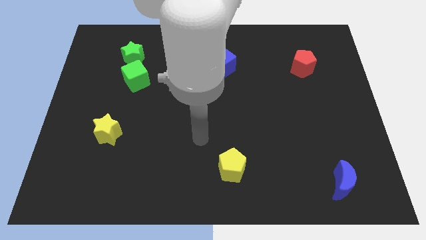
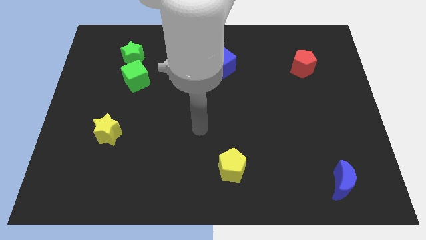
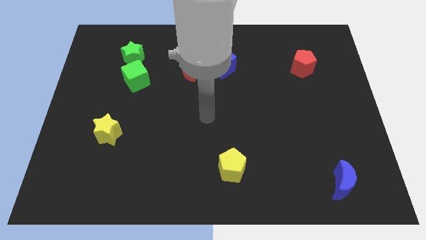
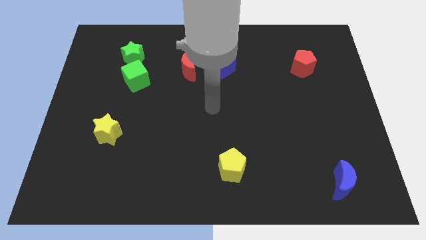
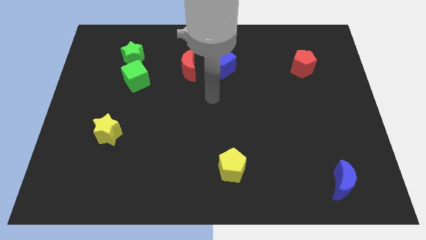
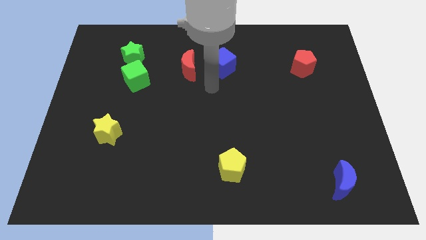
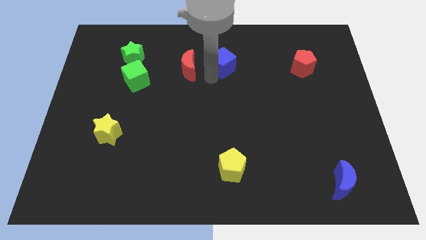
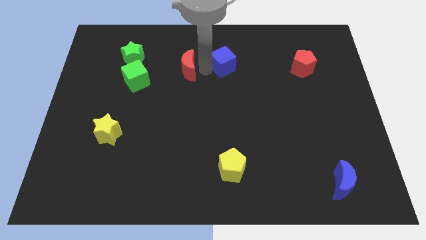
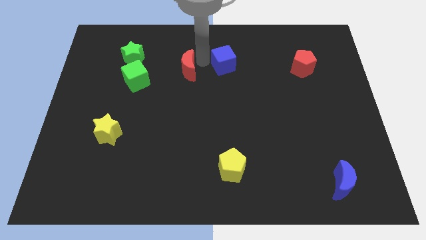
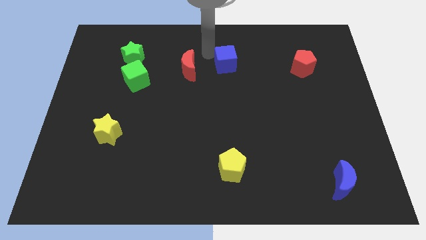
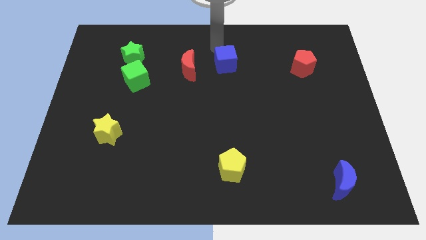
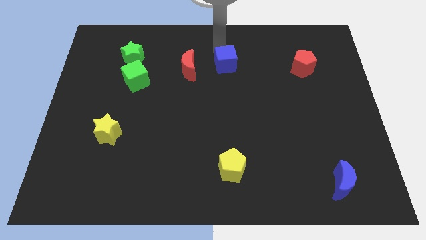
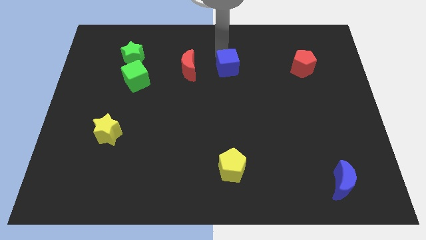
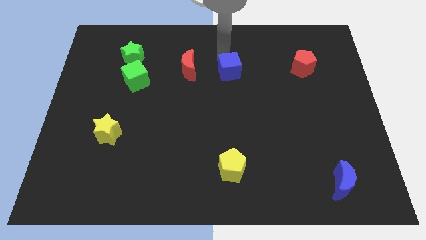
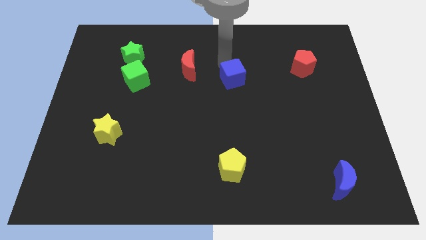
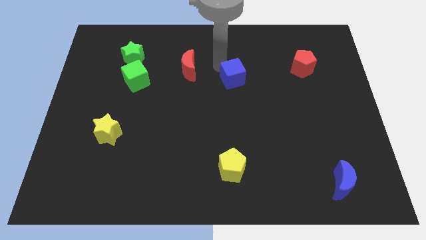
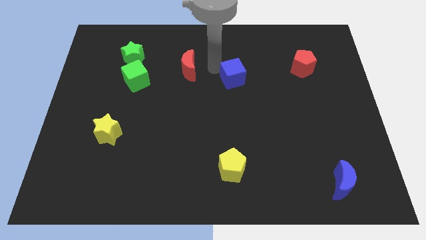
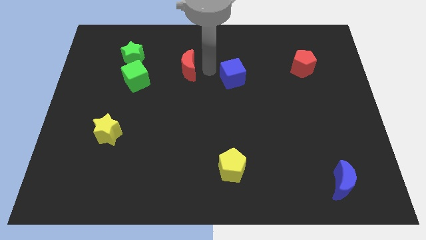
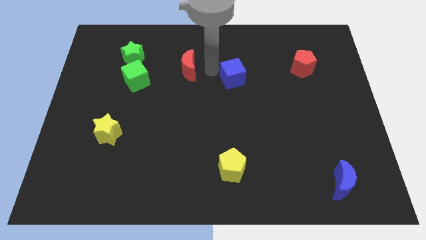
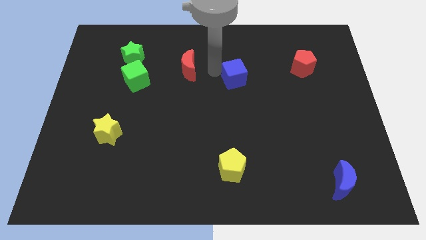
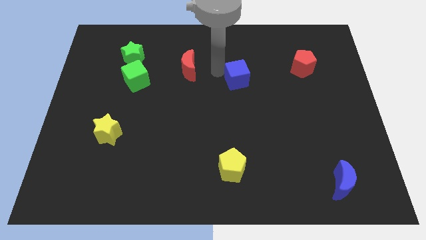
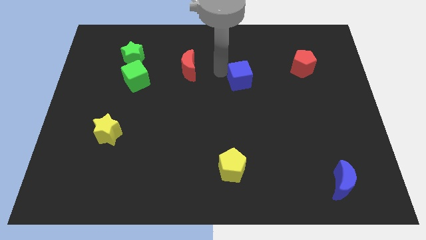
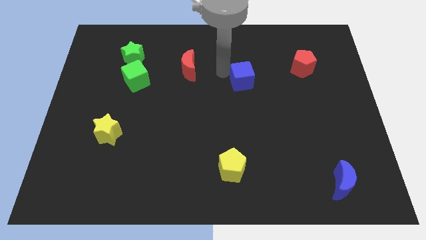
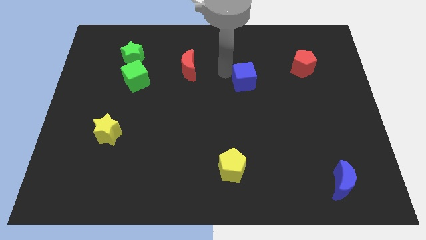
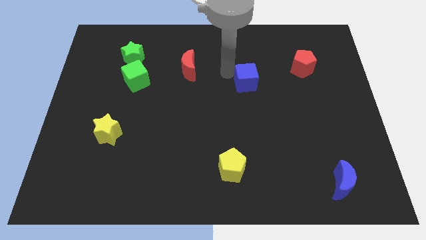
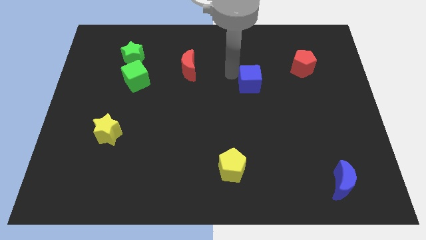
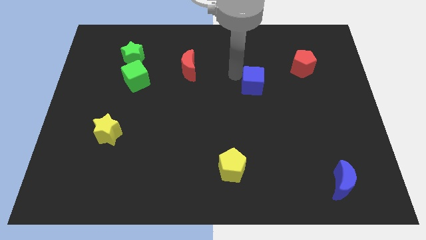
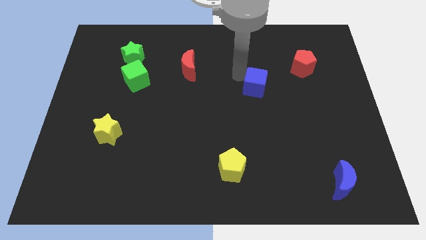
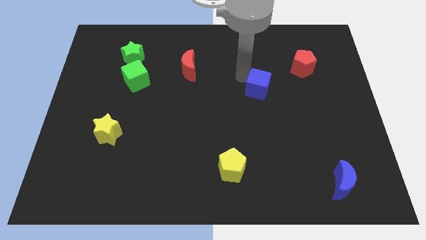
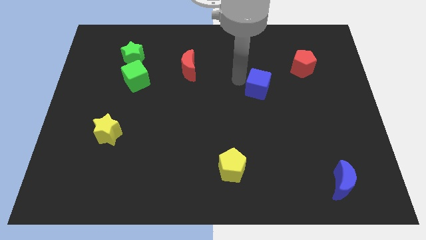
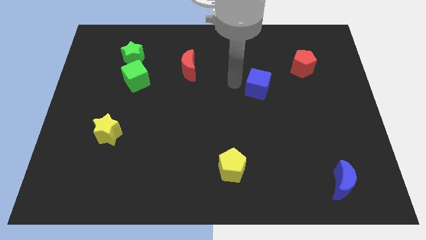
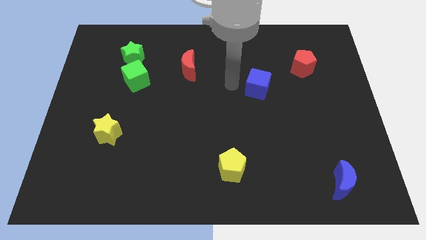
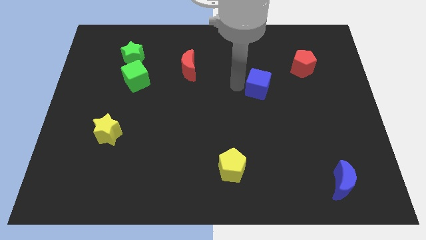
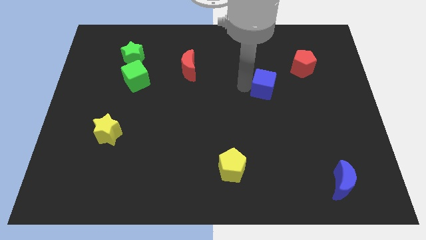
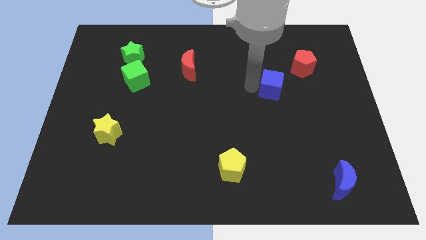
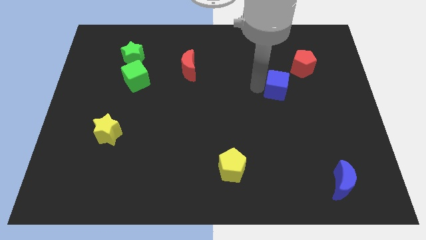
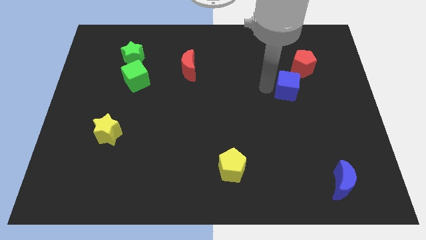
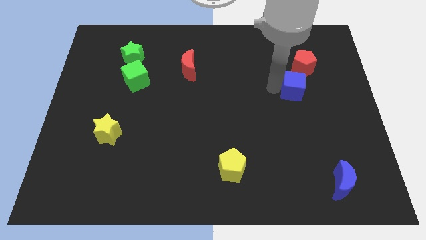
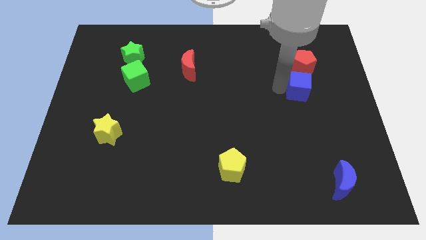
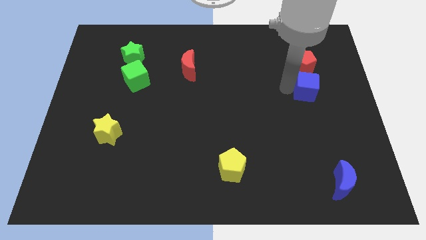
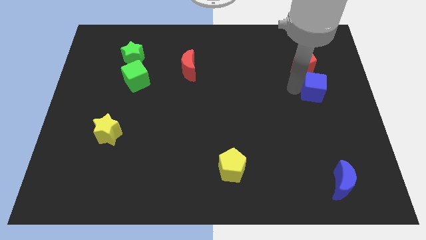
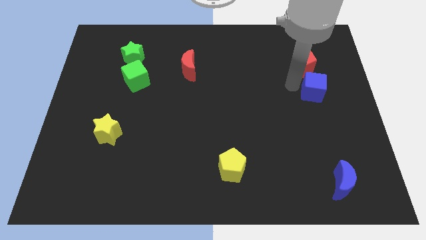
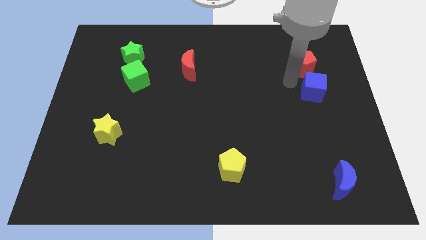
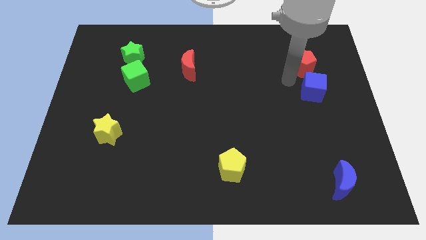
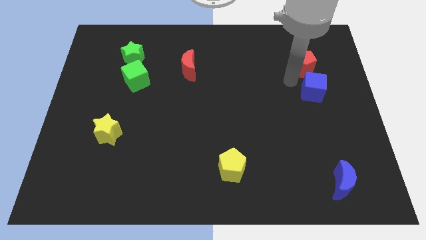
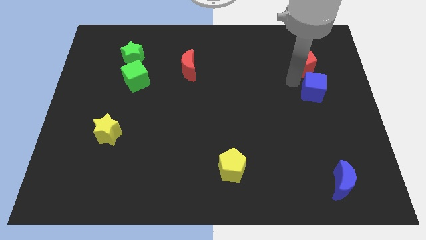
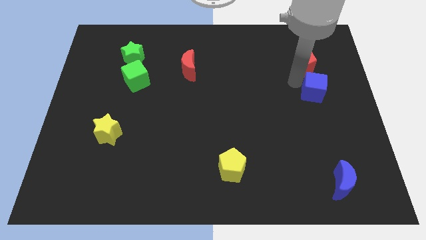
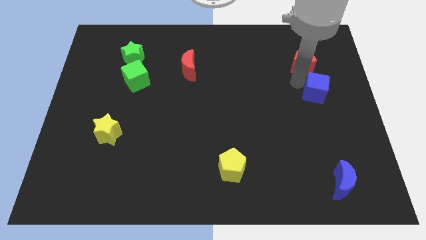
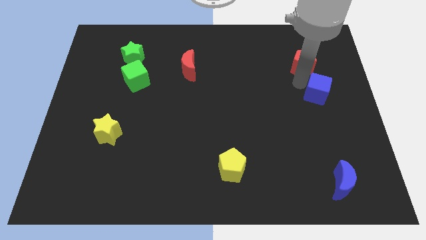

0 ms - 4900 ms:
push the blue cube to the right side of the board

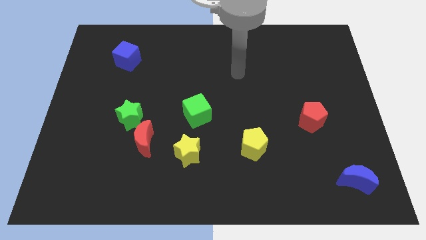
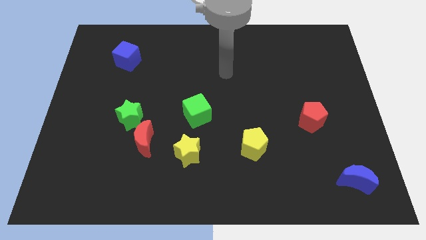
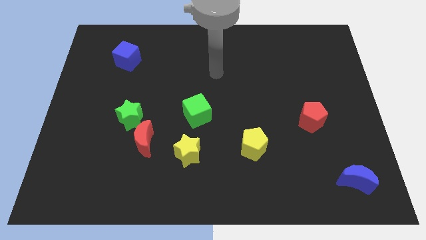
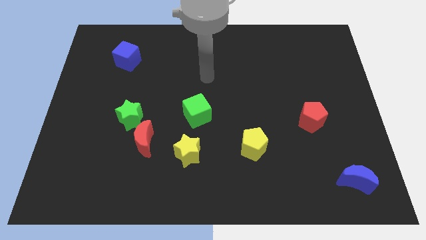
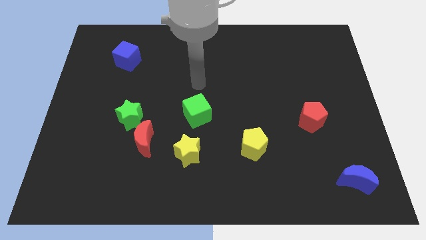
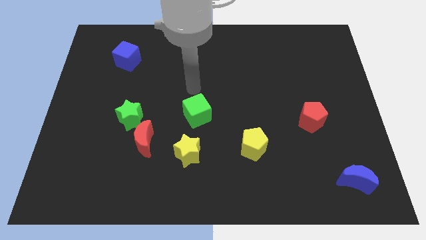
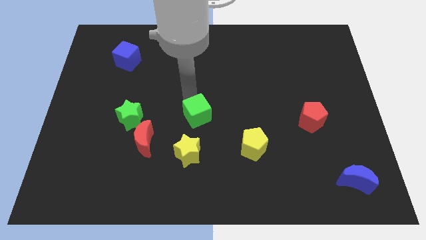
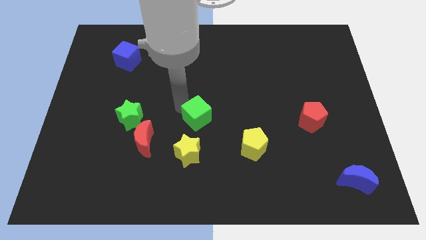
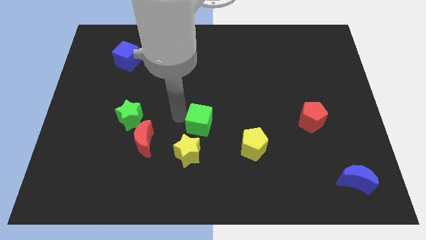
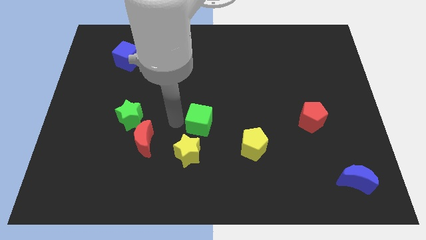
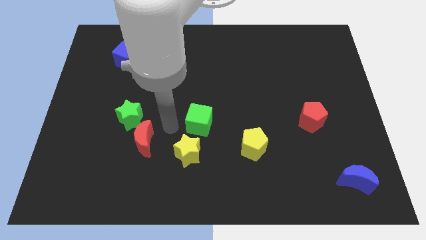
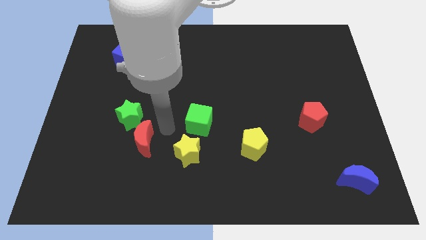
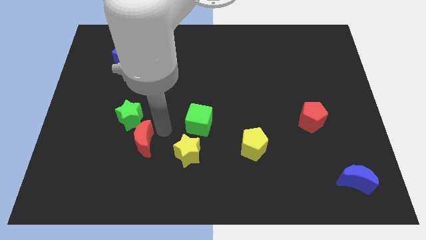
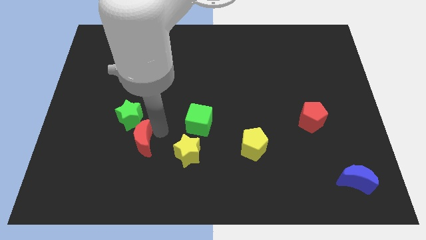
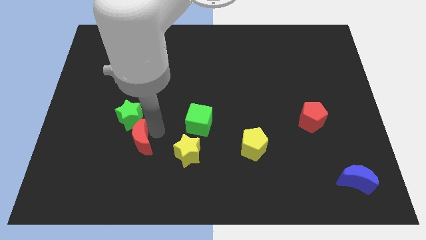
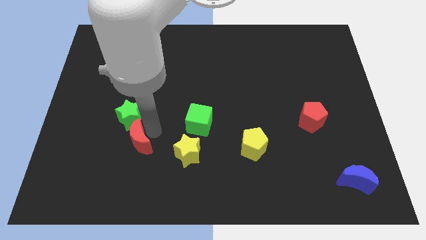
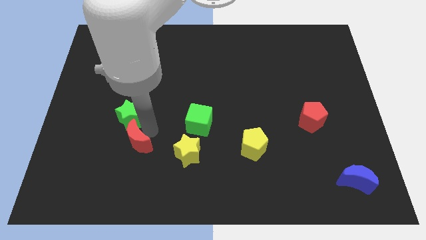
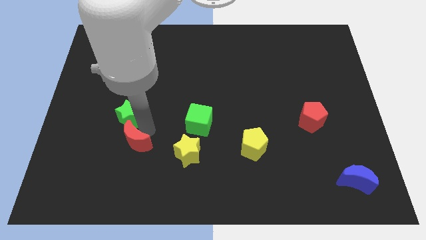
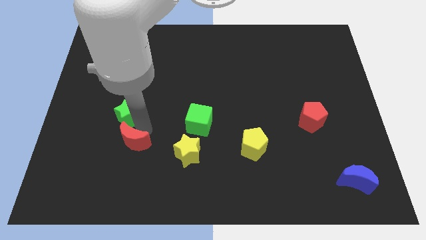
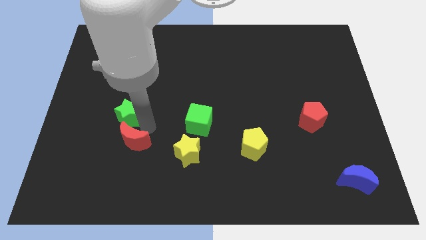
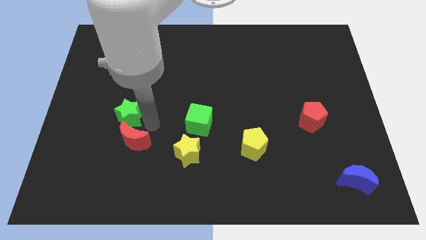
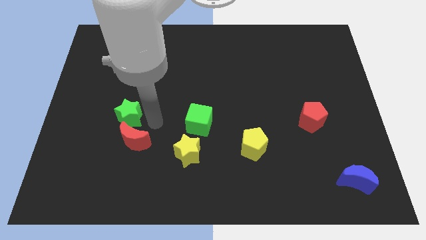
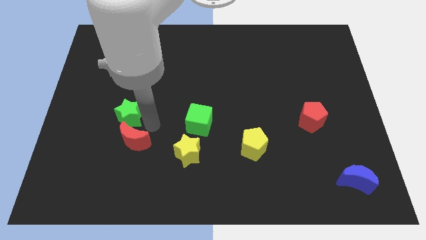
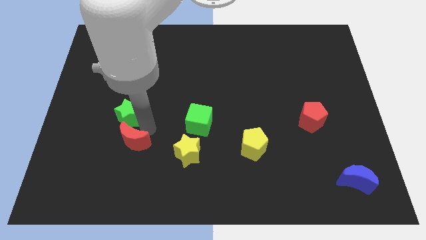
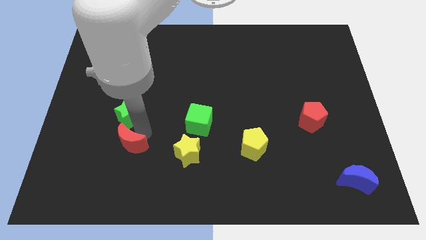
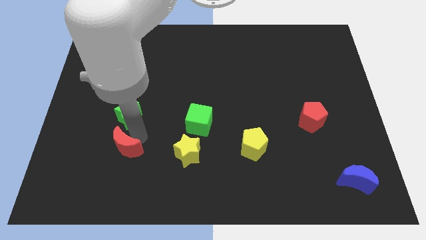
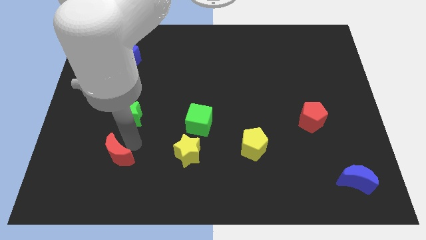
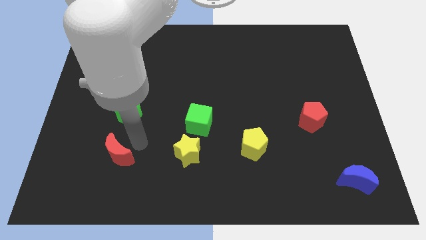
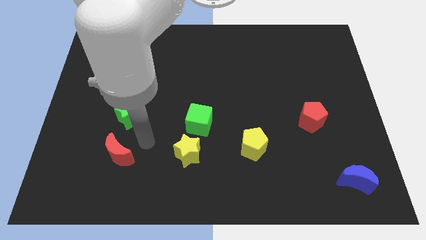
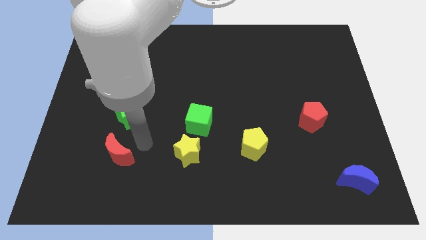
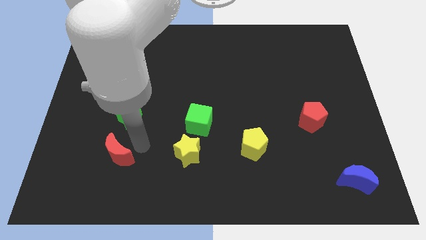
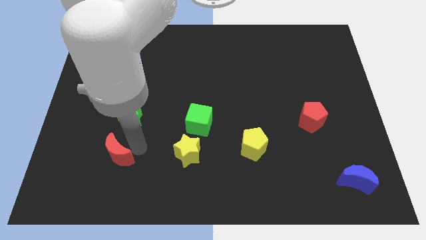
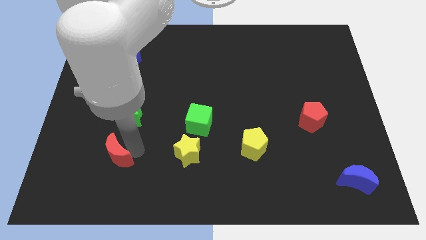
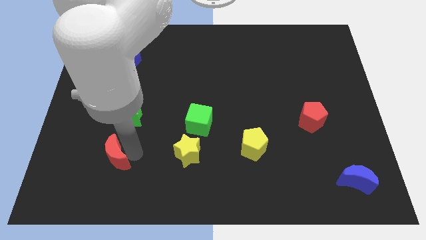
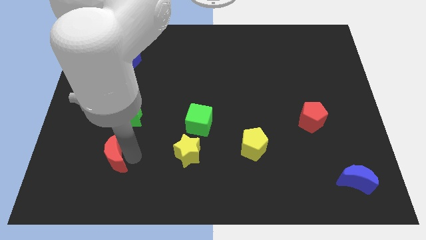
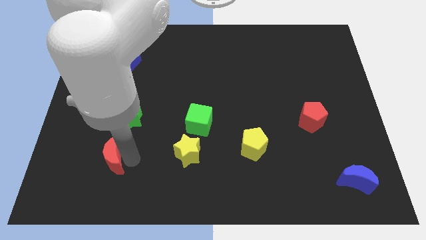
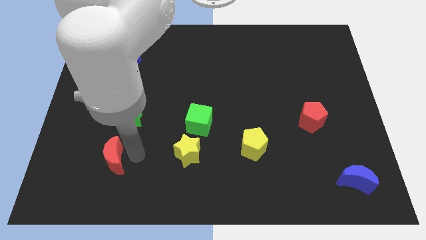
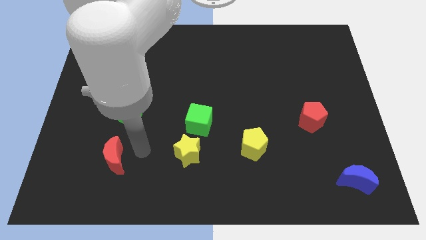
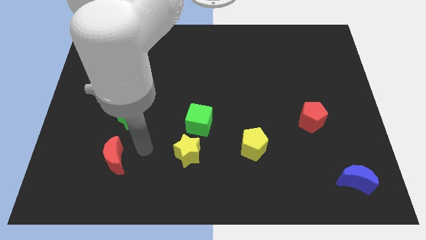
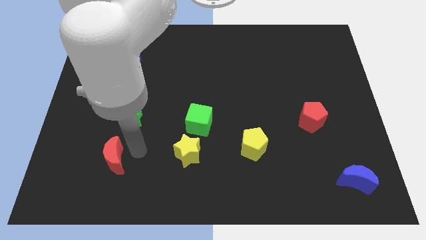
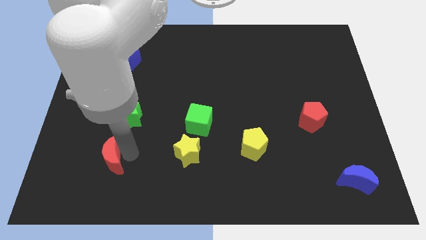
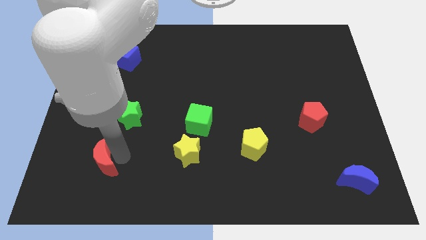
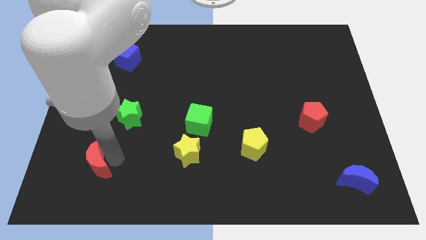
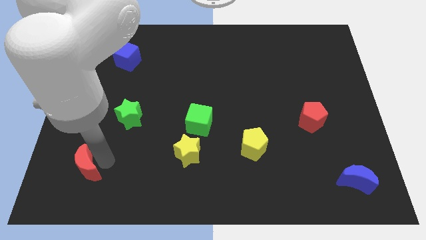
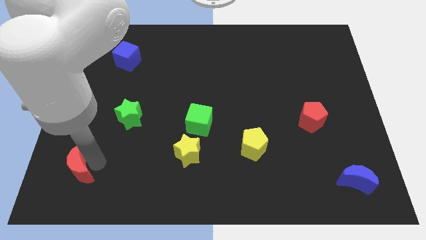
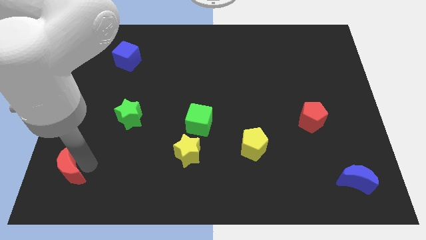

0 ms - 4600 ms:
move the red moon to the bottom left of the board
